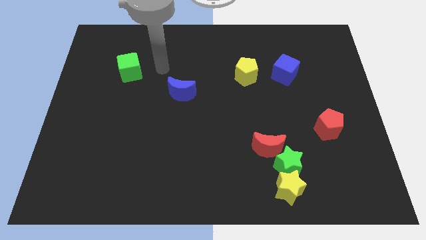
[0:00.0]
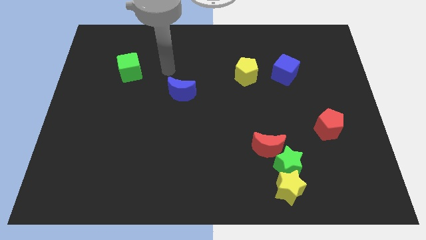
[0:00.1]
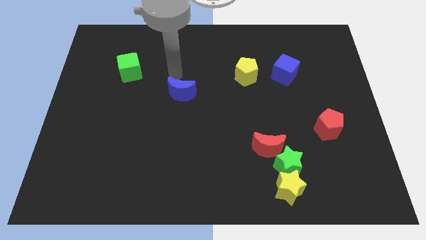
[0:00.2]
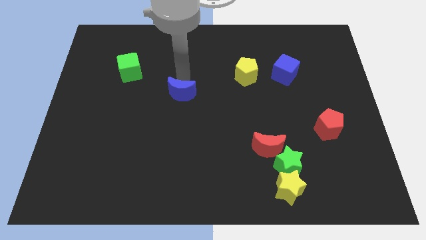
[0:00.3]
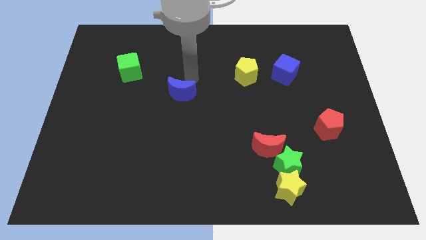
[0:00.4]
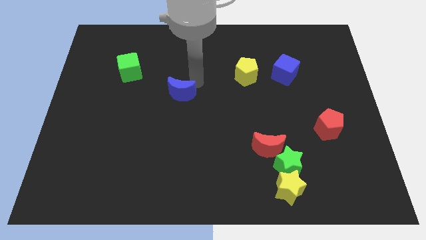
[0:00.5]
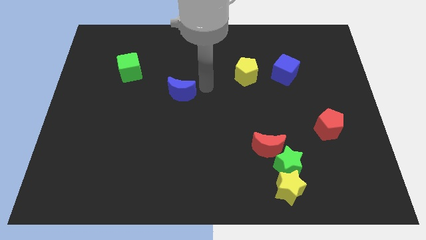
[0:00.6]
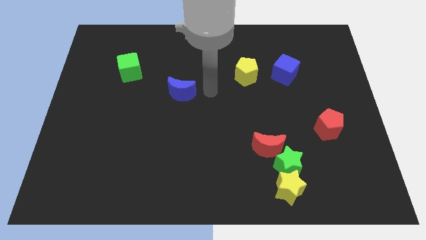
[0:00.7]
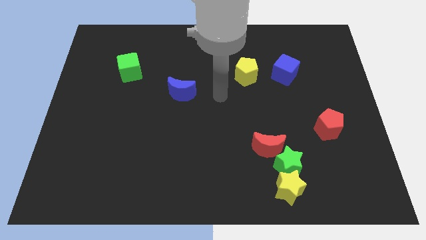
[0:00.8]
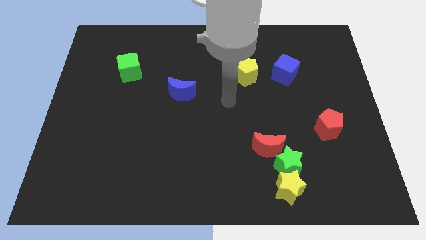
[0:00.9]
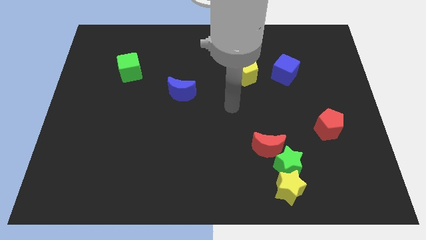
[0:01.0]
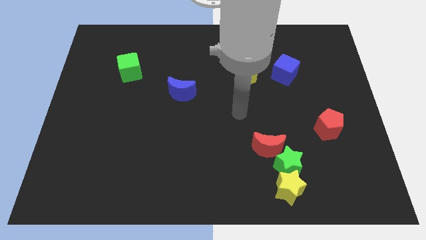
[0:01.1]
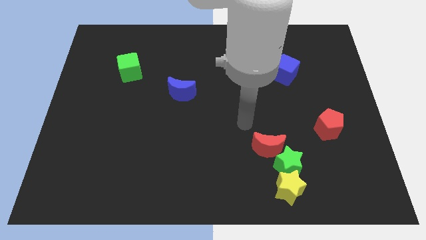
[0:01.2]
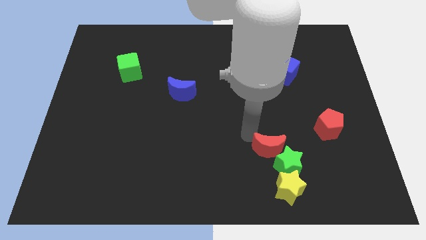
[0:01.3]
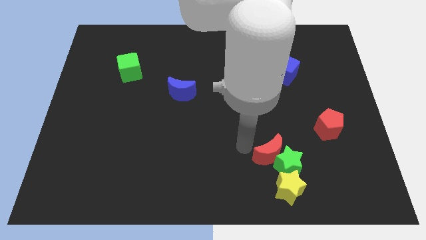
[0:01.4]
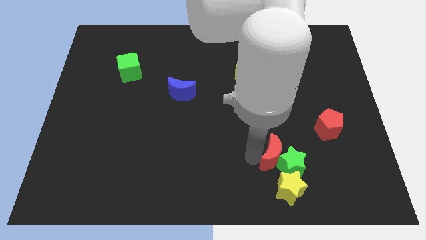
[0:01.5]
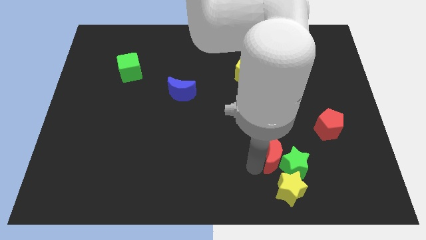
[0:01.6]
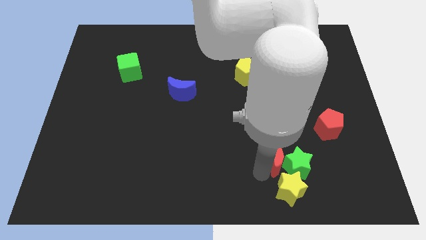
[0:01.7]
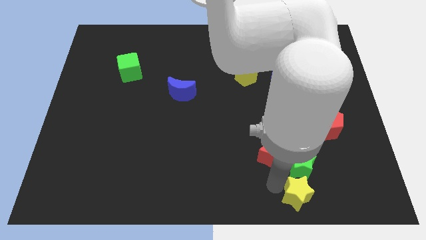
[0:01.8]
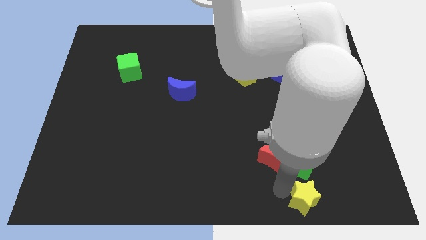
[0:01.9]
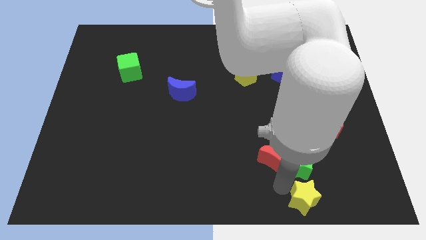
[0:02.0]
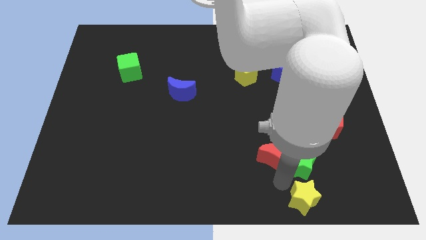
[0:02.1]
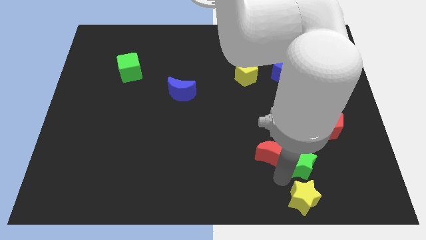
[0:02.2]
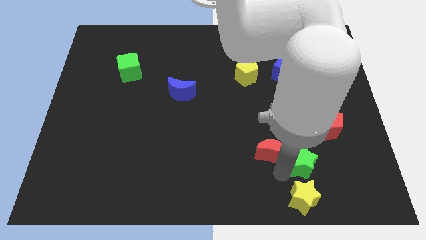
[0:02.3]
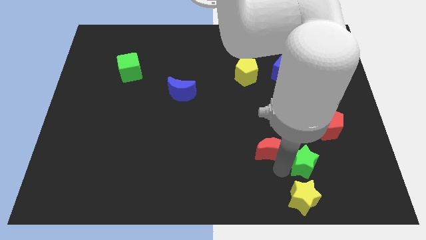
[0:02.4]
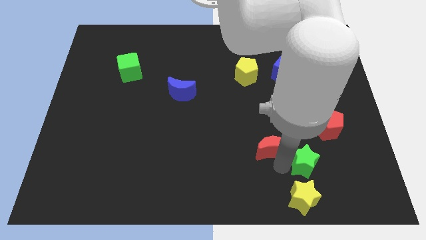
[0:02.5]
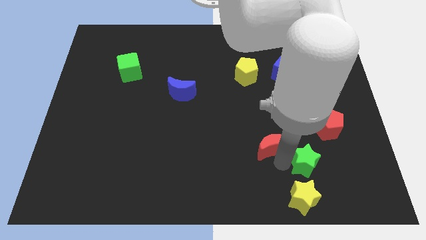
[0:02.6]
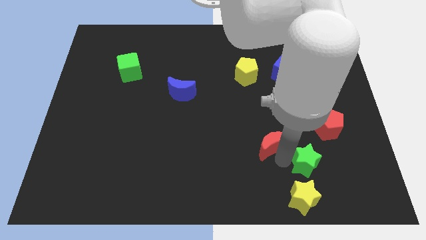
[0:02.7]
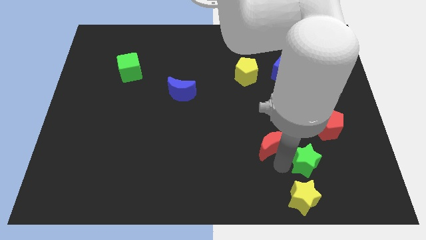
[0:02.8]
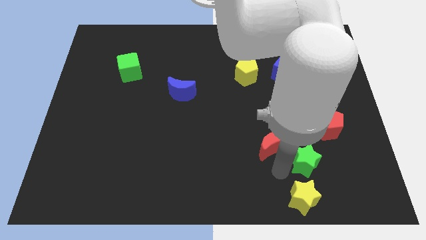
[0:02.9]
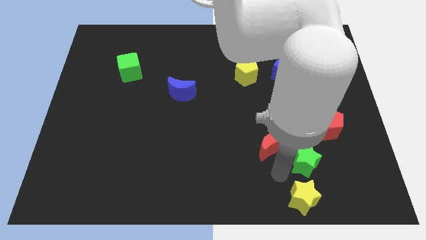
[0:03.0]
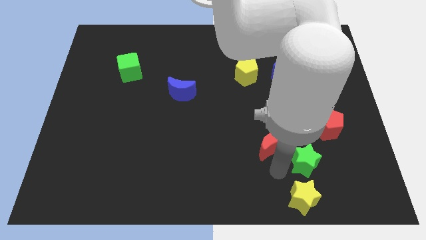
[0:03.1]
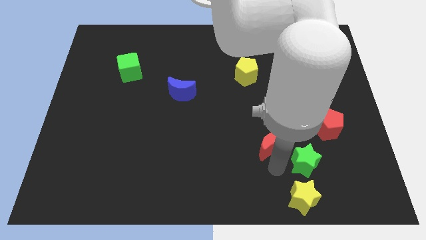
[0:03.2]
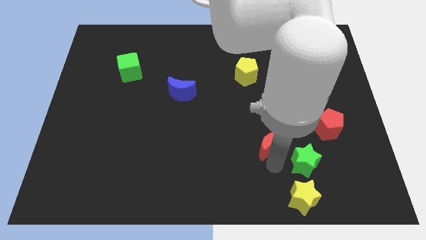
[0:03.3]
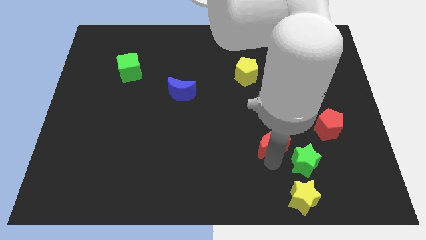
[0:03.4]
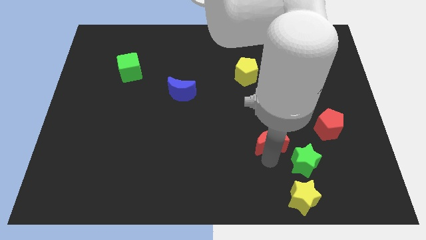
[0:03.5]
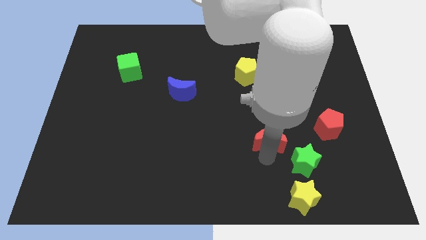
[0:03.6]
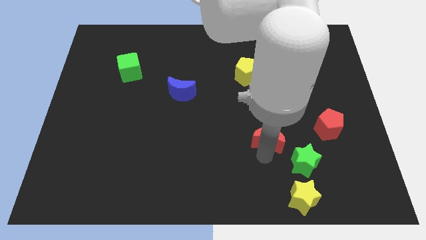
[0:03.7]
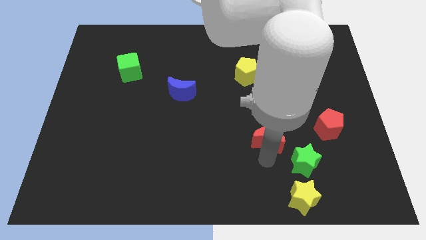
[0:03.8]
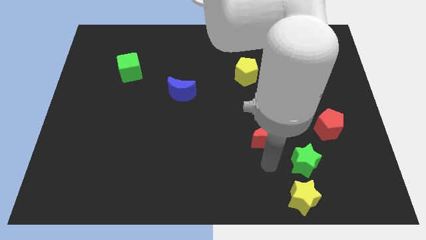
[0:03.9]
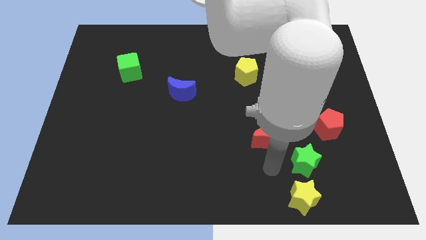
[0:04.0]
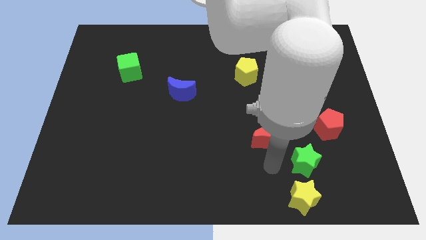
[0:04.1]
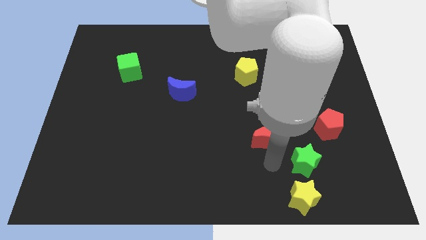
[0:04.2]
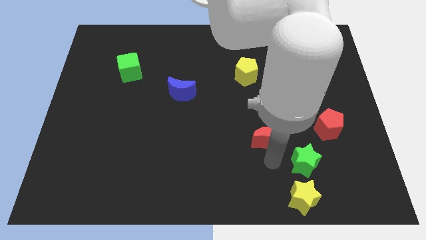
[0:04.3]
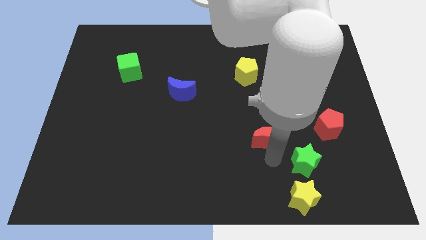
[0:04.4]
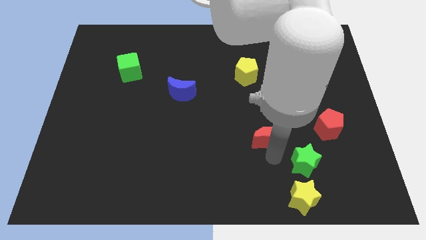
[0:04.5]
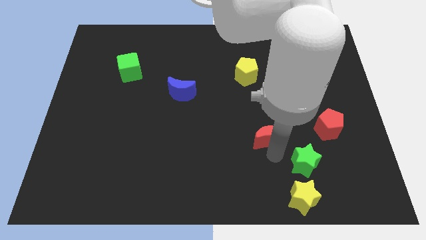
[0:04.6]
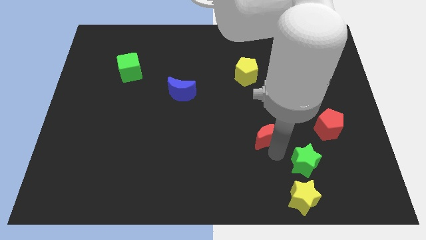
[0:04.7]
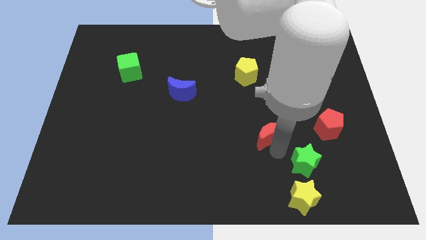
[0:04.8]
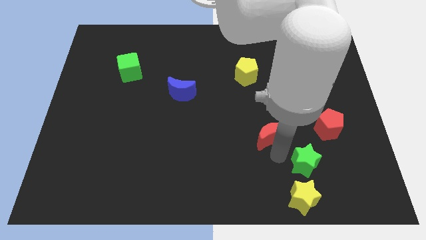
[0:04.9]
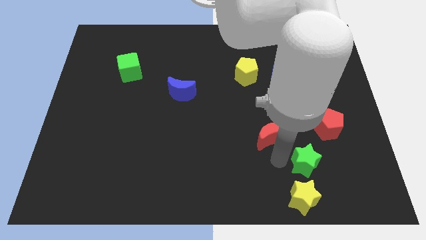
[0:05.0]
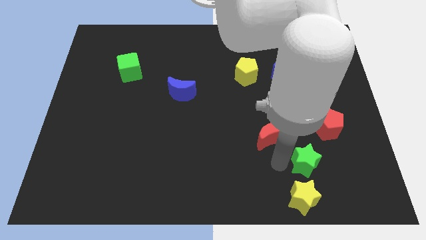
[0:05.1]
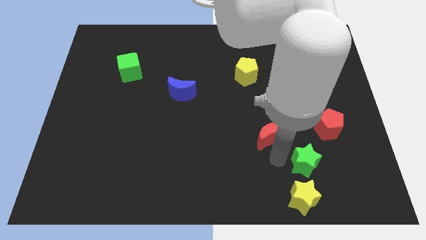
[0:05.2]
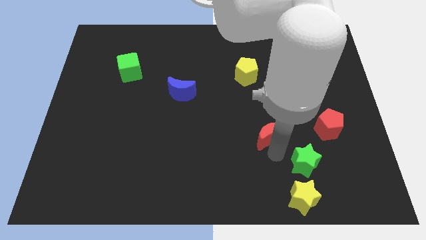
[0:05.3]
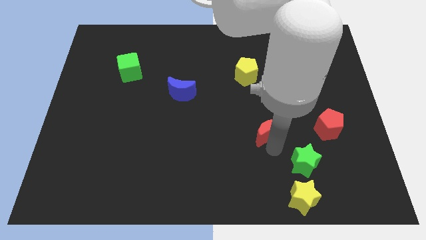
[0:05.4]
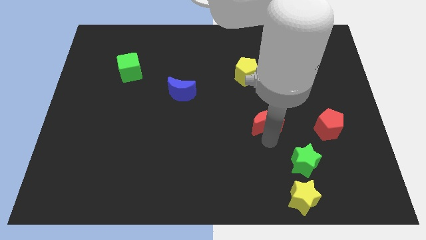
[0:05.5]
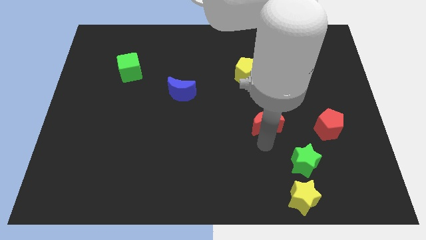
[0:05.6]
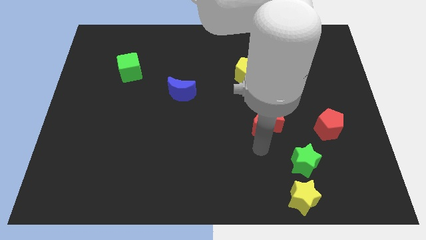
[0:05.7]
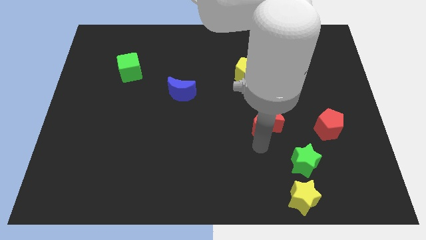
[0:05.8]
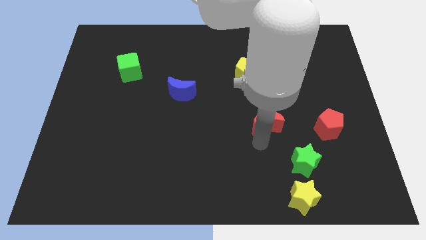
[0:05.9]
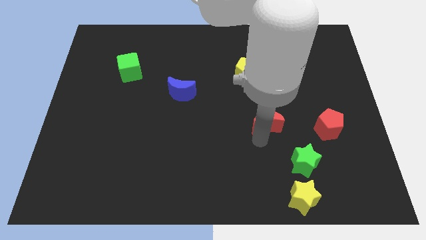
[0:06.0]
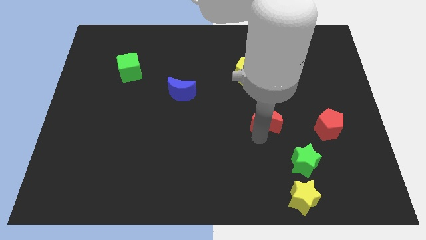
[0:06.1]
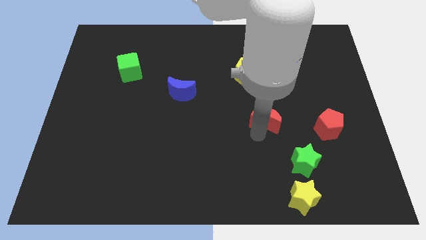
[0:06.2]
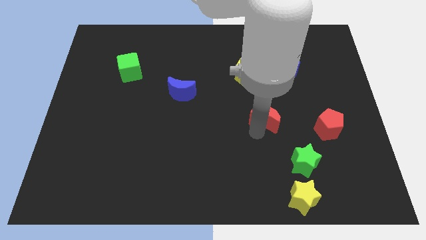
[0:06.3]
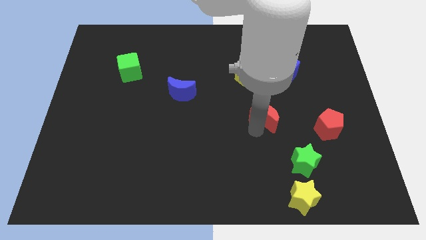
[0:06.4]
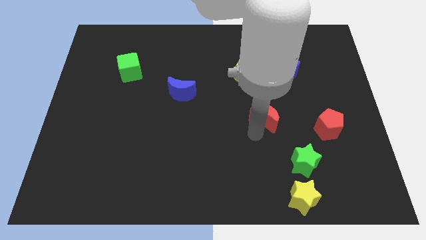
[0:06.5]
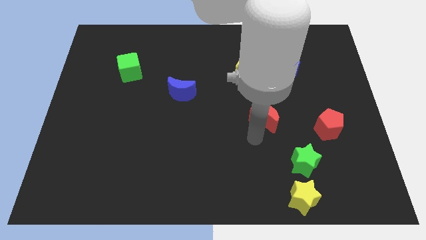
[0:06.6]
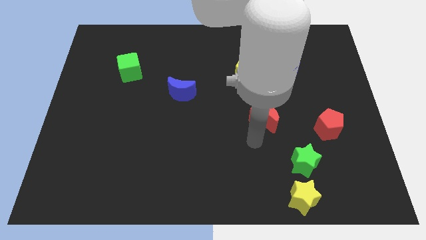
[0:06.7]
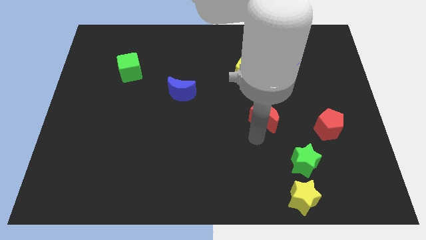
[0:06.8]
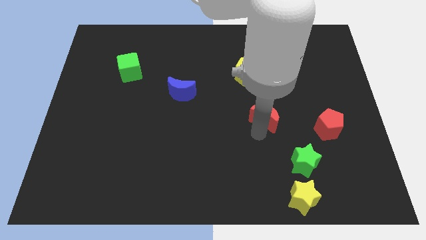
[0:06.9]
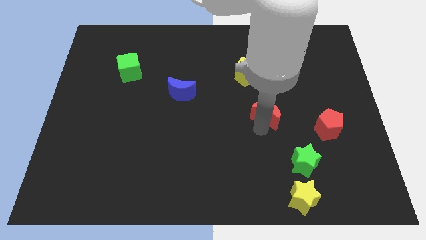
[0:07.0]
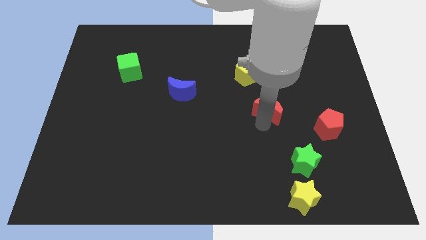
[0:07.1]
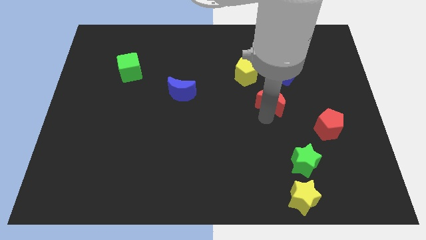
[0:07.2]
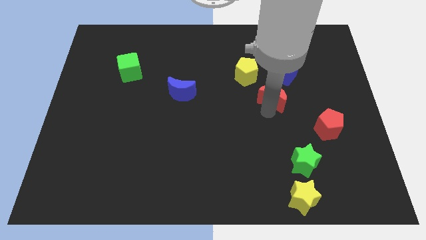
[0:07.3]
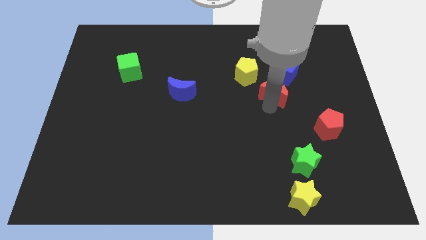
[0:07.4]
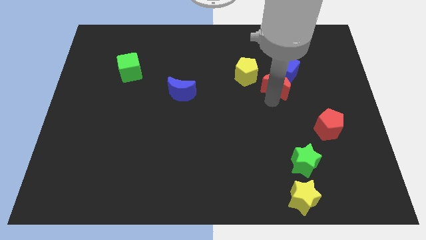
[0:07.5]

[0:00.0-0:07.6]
move the red moon next to the blue cube
